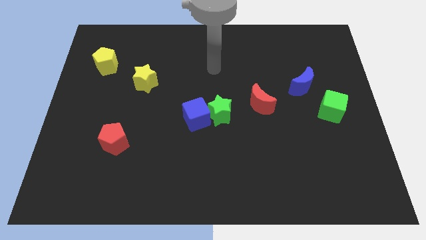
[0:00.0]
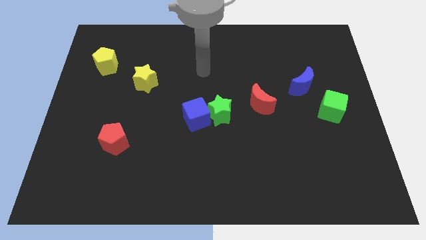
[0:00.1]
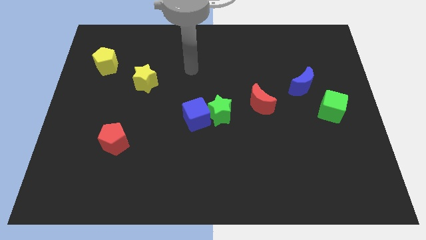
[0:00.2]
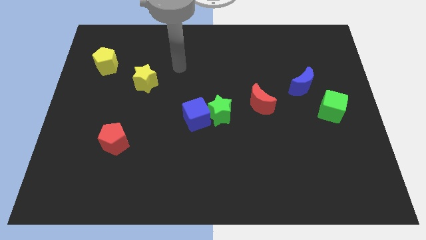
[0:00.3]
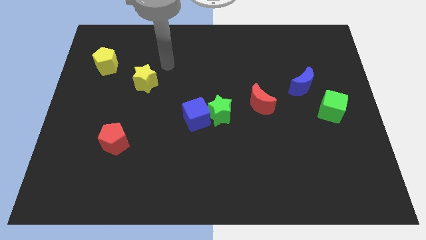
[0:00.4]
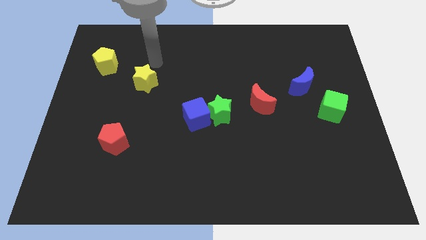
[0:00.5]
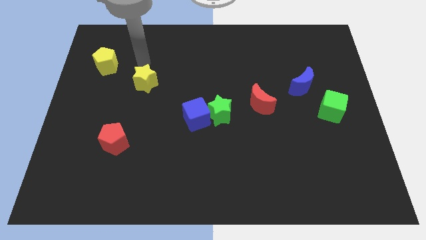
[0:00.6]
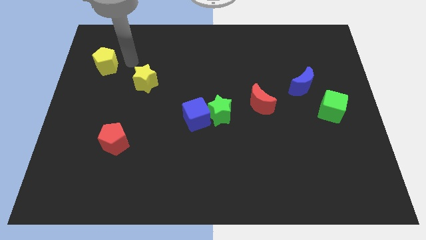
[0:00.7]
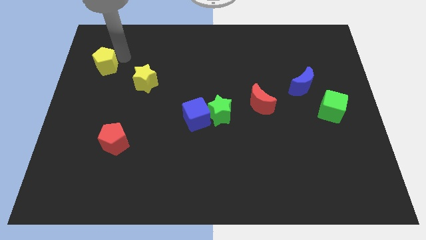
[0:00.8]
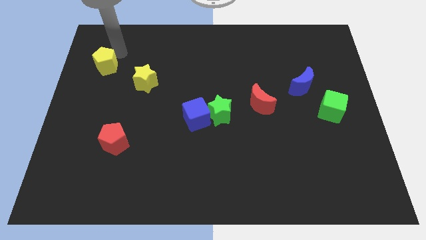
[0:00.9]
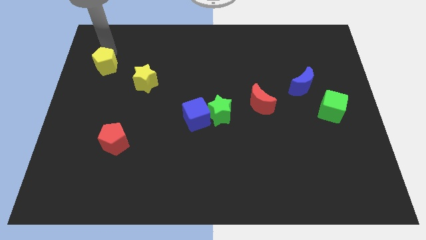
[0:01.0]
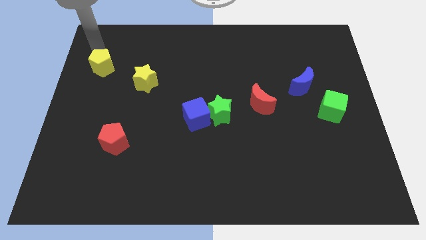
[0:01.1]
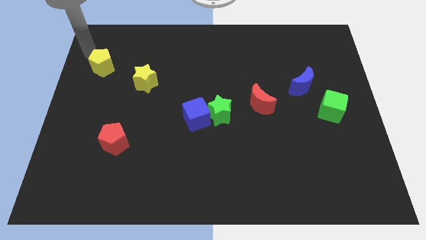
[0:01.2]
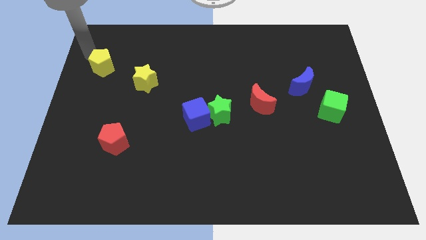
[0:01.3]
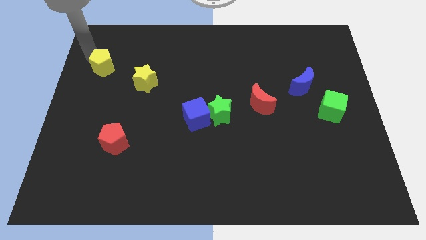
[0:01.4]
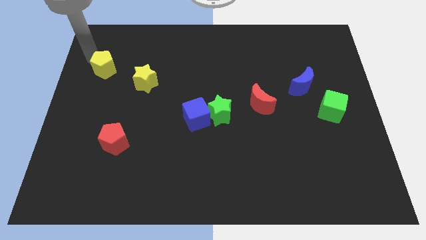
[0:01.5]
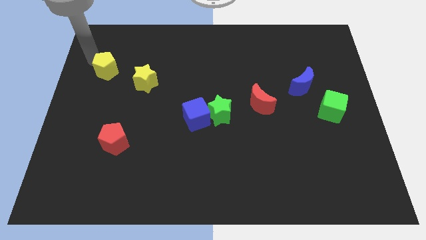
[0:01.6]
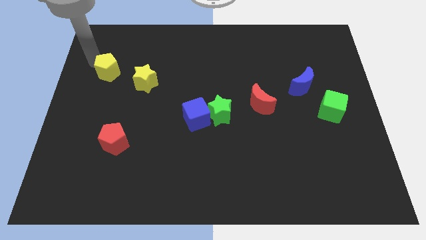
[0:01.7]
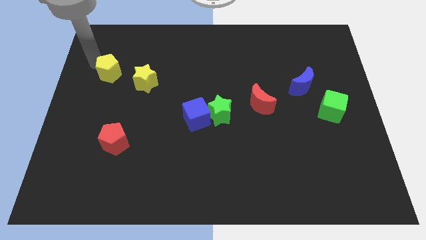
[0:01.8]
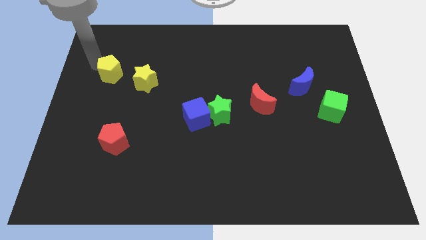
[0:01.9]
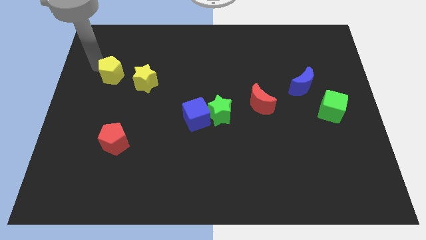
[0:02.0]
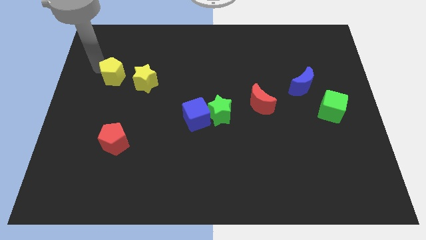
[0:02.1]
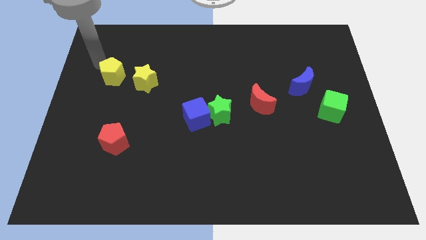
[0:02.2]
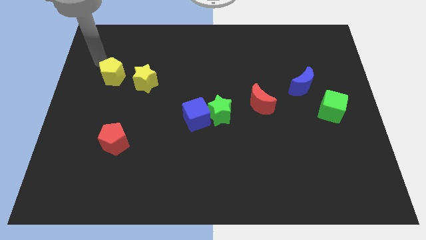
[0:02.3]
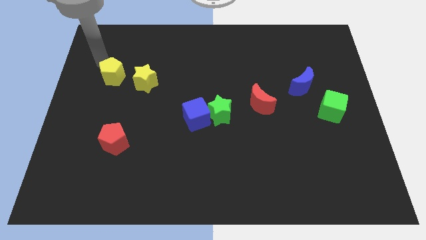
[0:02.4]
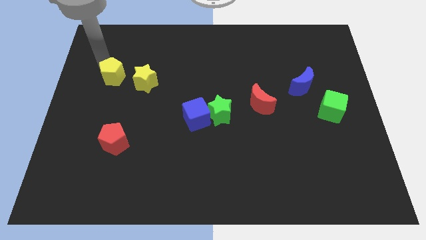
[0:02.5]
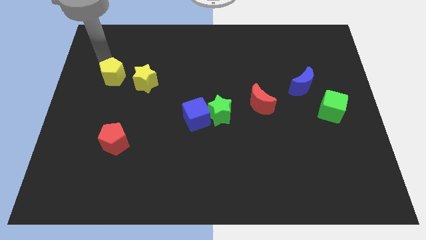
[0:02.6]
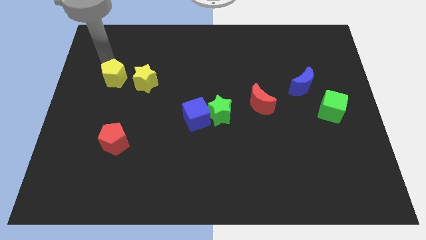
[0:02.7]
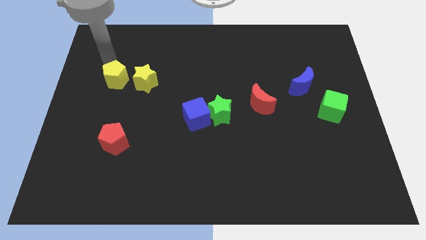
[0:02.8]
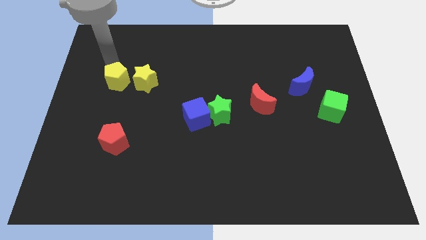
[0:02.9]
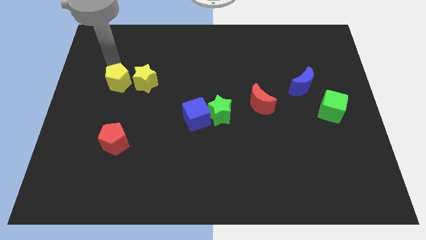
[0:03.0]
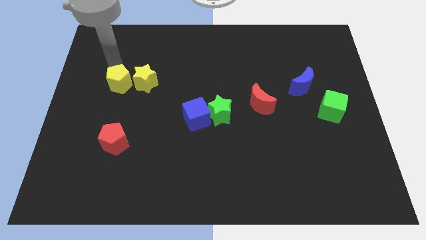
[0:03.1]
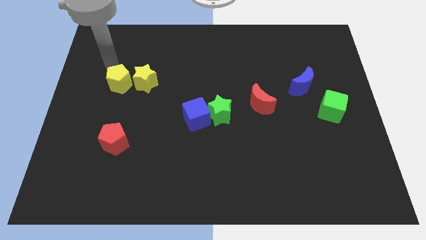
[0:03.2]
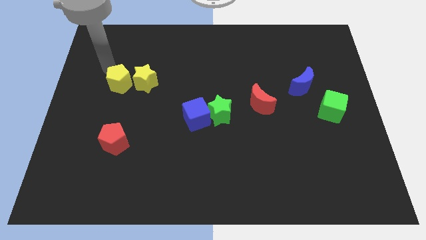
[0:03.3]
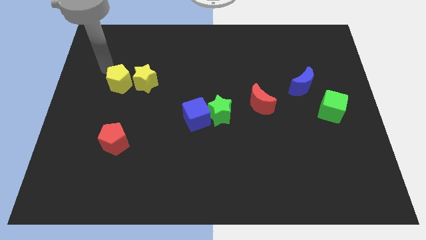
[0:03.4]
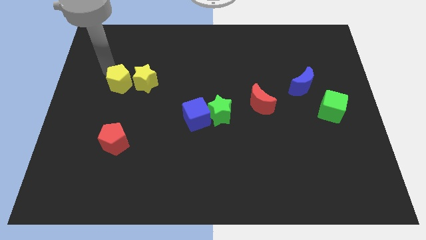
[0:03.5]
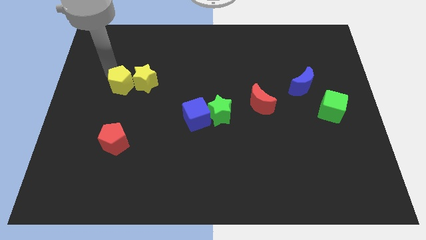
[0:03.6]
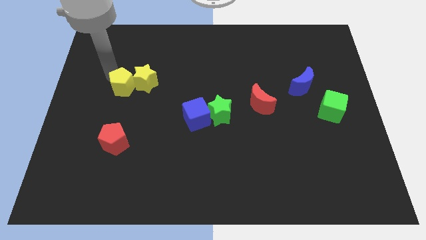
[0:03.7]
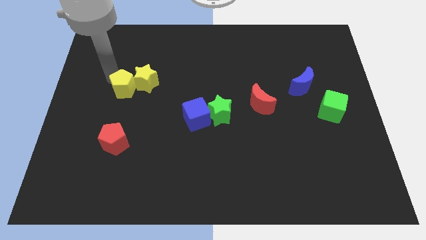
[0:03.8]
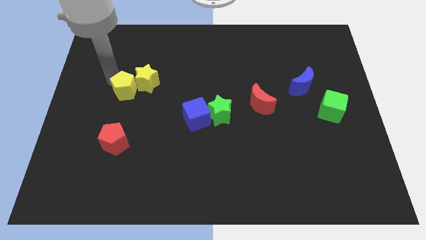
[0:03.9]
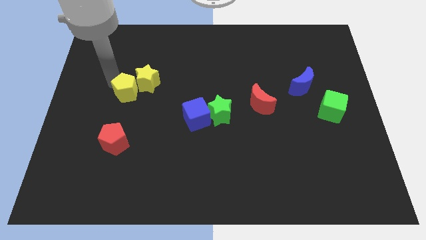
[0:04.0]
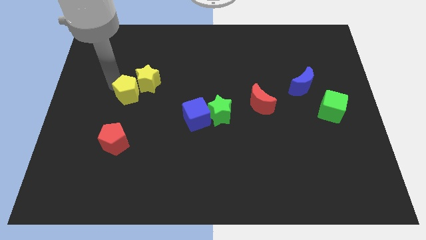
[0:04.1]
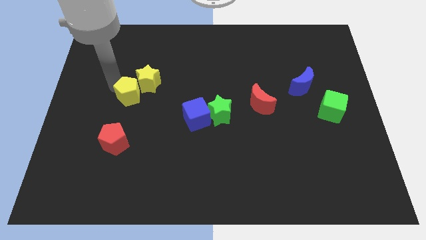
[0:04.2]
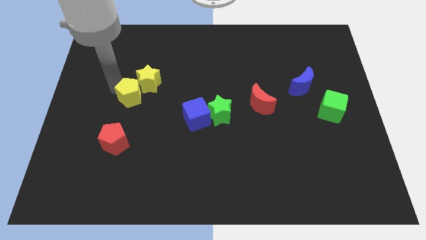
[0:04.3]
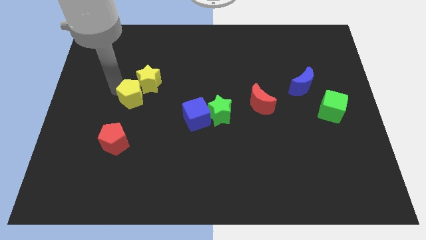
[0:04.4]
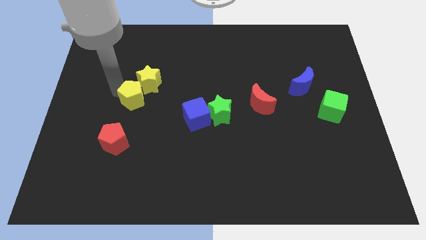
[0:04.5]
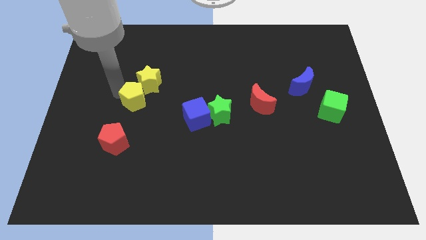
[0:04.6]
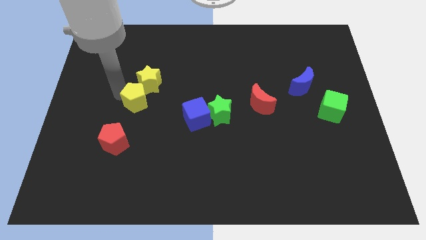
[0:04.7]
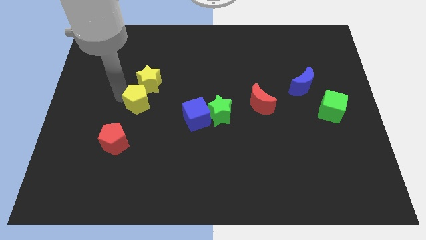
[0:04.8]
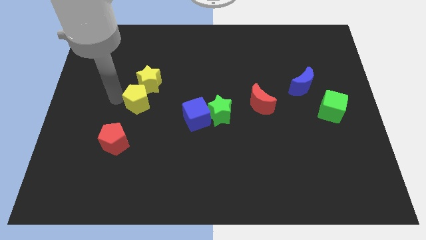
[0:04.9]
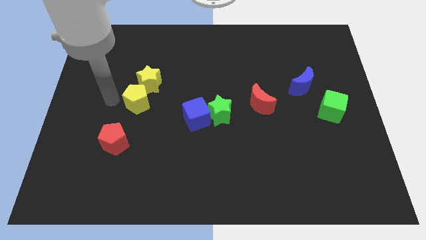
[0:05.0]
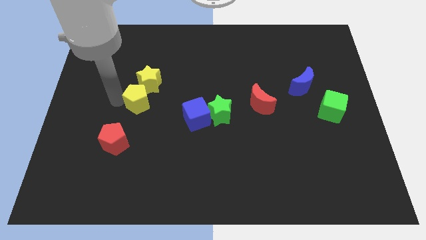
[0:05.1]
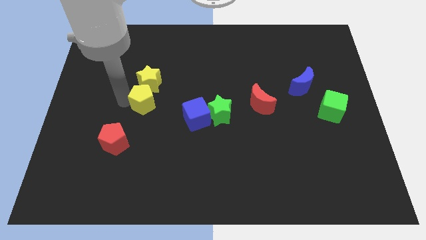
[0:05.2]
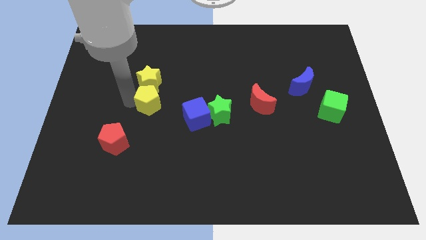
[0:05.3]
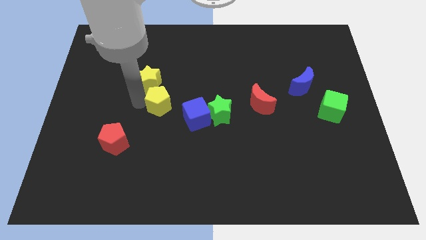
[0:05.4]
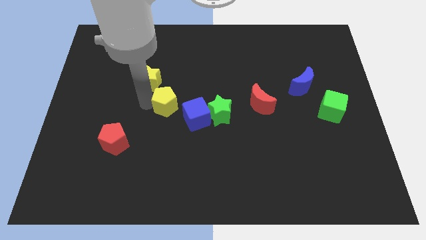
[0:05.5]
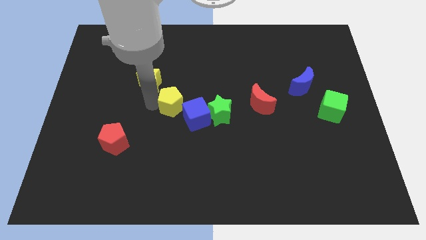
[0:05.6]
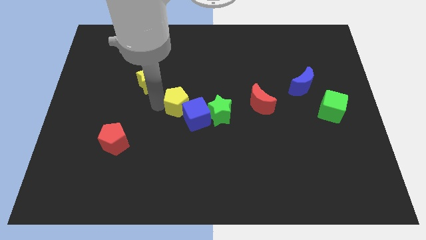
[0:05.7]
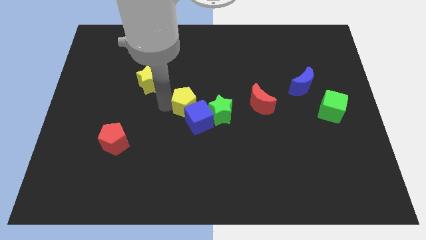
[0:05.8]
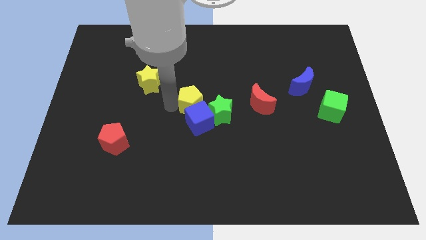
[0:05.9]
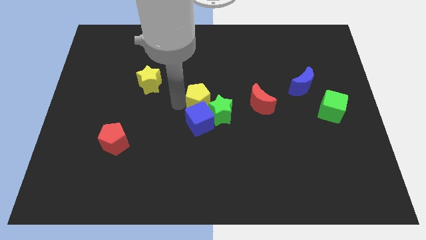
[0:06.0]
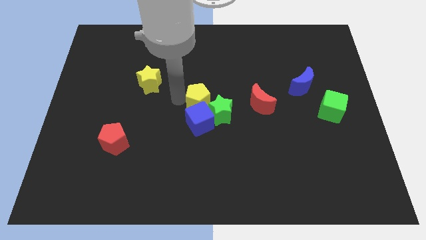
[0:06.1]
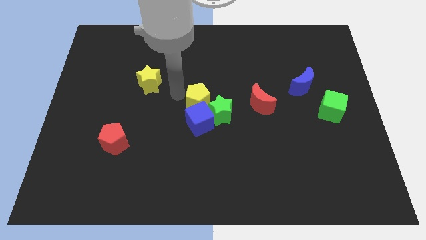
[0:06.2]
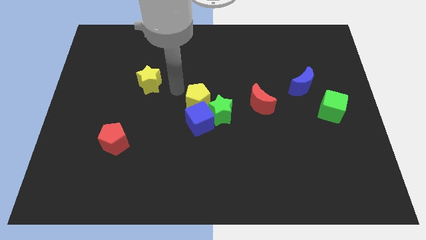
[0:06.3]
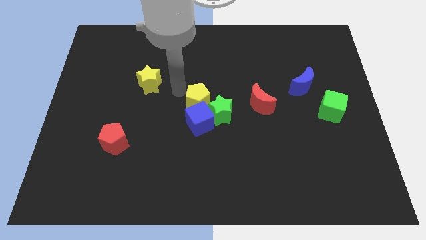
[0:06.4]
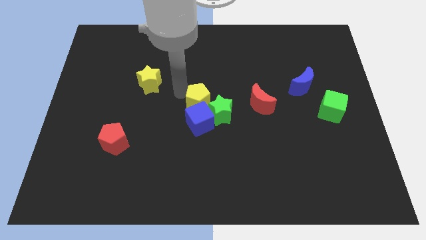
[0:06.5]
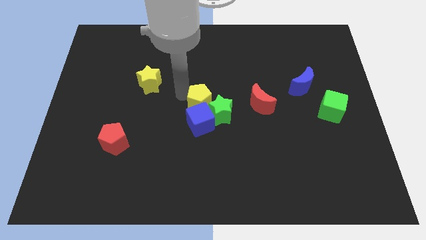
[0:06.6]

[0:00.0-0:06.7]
slide the yellow pentagon to the green star

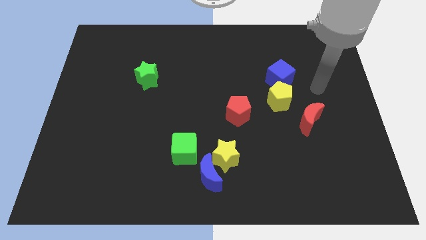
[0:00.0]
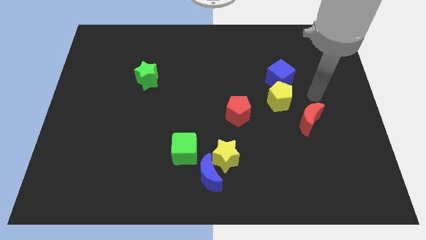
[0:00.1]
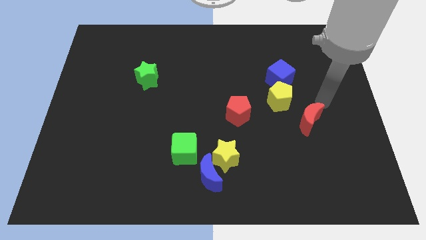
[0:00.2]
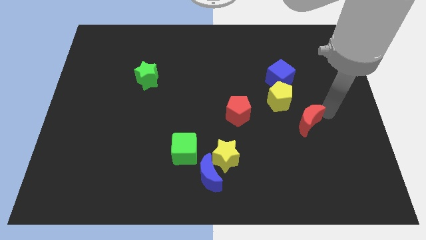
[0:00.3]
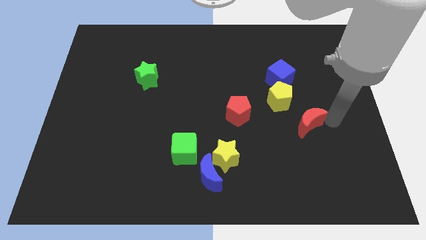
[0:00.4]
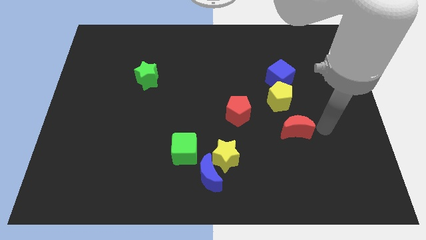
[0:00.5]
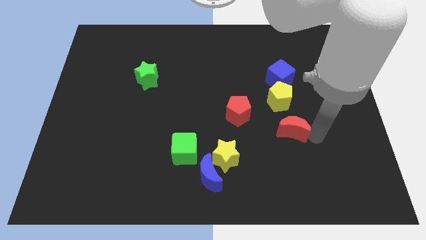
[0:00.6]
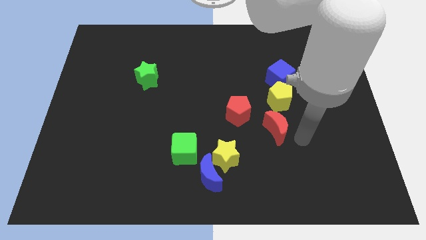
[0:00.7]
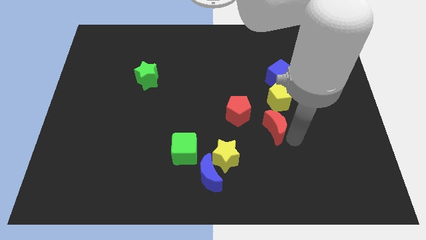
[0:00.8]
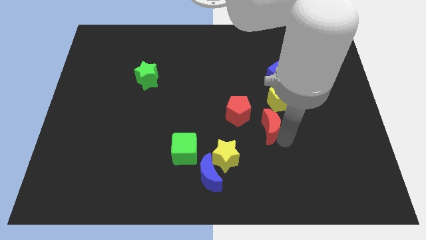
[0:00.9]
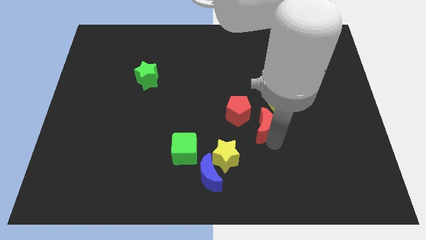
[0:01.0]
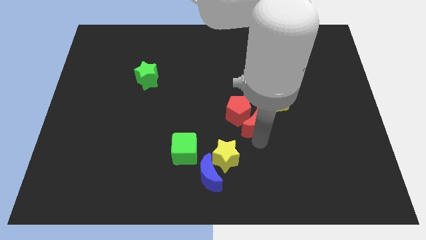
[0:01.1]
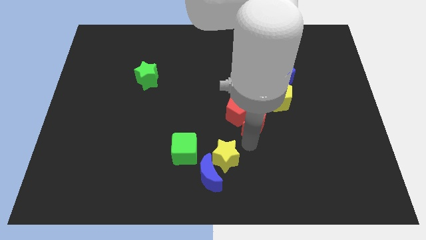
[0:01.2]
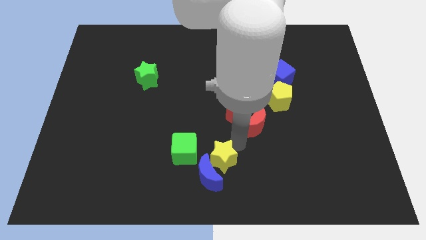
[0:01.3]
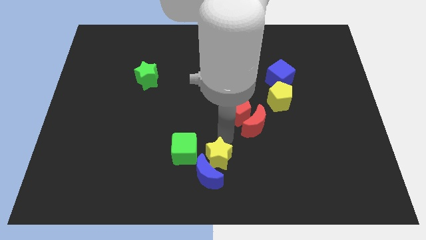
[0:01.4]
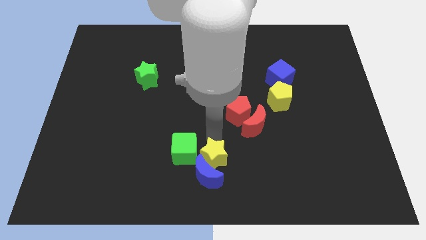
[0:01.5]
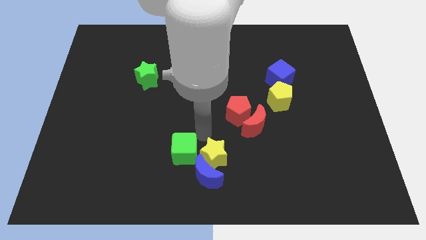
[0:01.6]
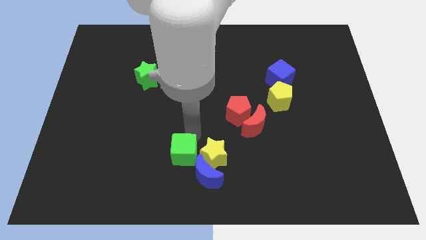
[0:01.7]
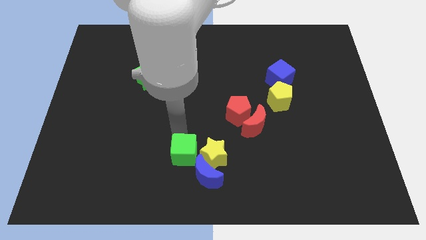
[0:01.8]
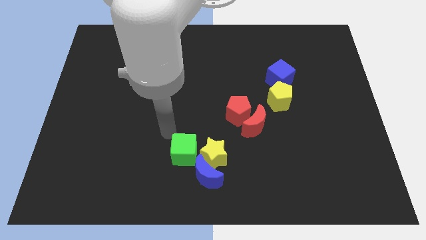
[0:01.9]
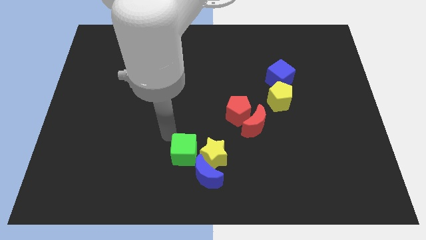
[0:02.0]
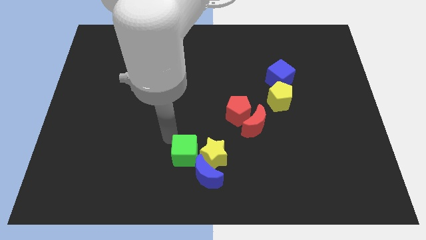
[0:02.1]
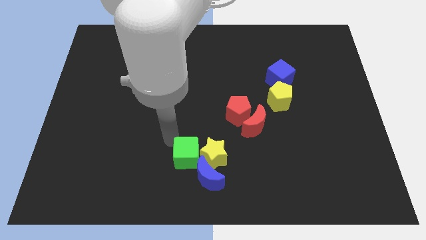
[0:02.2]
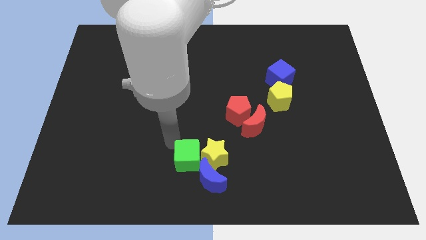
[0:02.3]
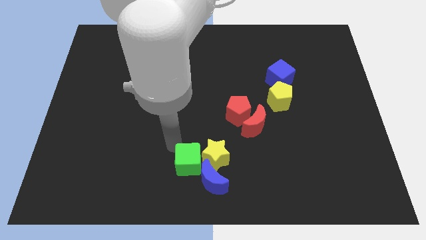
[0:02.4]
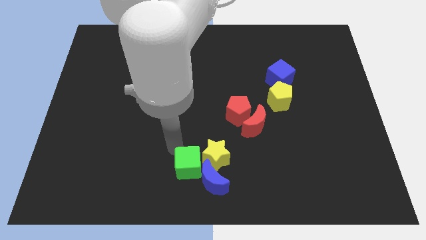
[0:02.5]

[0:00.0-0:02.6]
move the green cube to the blue moon
